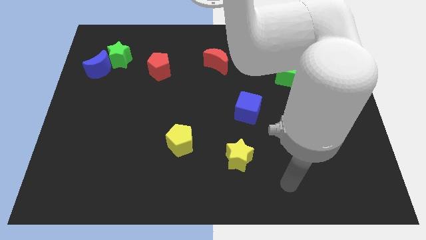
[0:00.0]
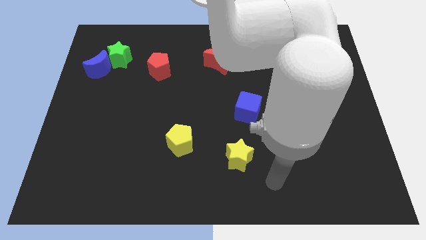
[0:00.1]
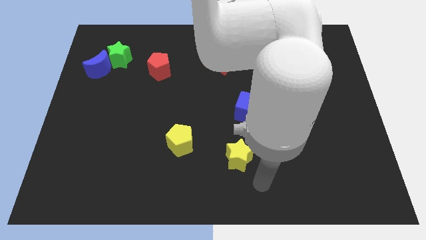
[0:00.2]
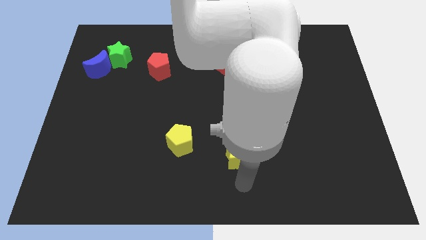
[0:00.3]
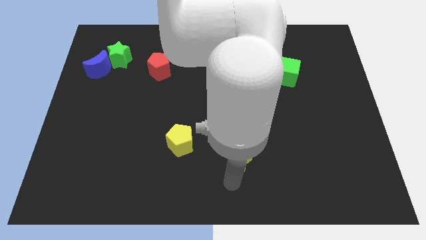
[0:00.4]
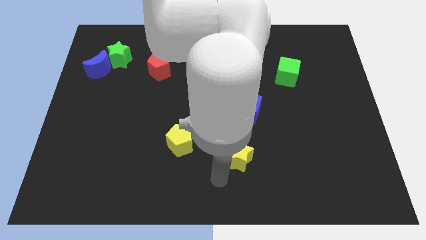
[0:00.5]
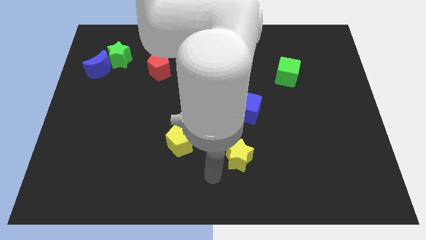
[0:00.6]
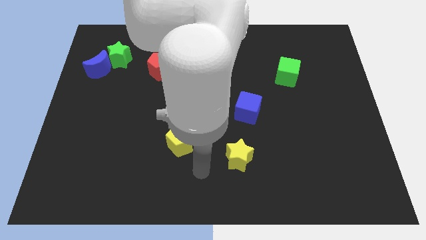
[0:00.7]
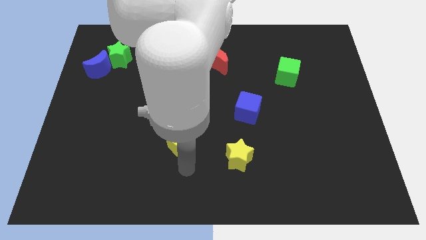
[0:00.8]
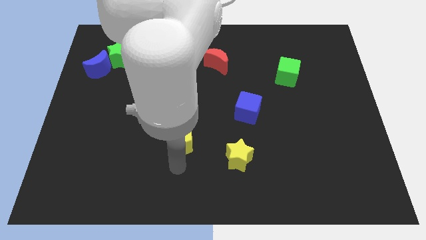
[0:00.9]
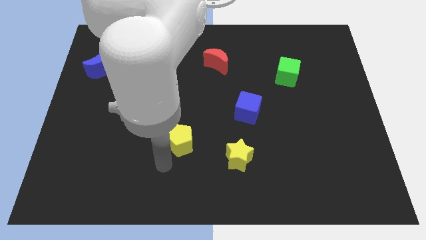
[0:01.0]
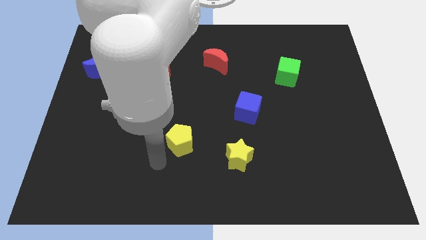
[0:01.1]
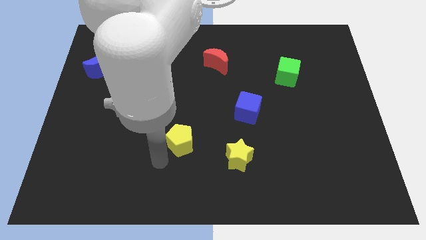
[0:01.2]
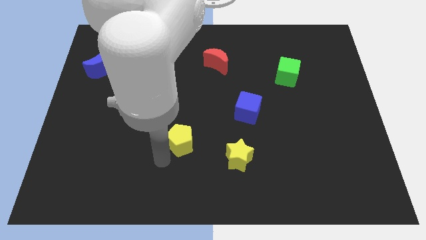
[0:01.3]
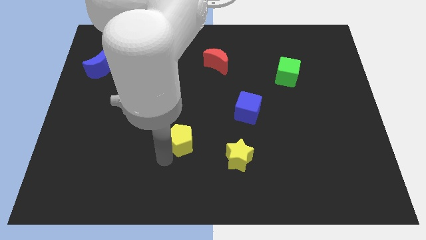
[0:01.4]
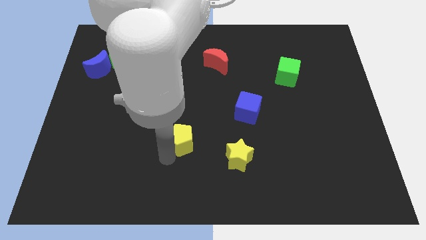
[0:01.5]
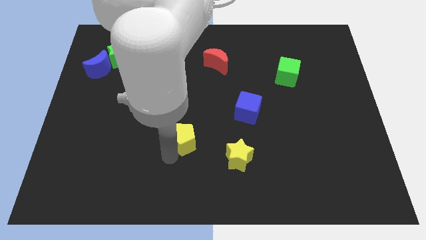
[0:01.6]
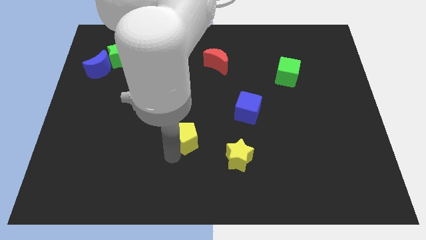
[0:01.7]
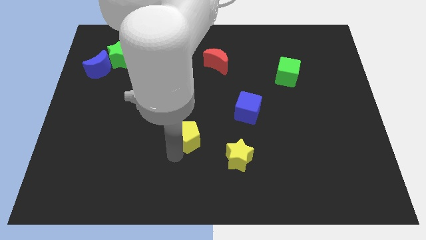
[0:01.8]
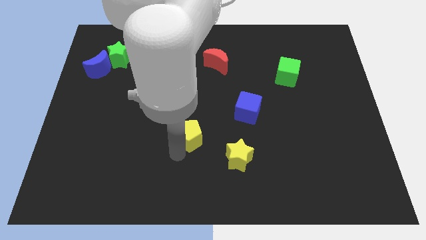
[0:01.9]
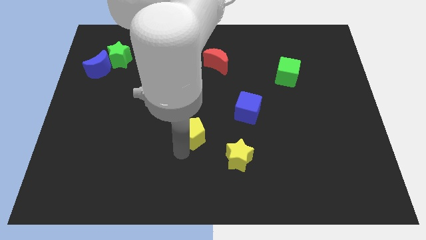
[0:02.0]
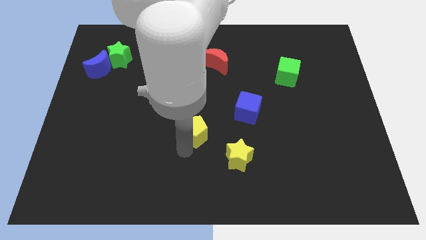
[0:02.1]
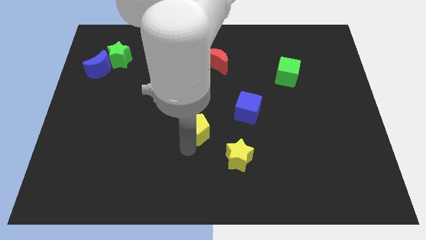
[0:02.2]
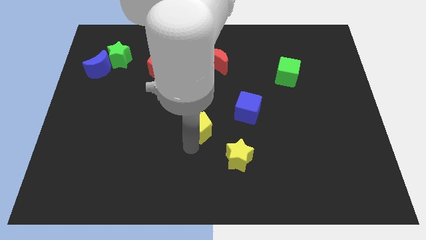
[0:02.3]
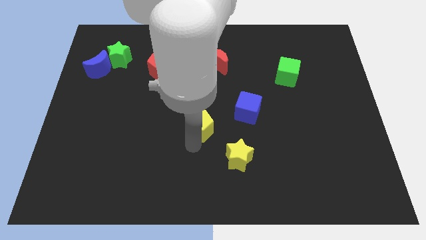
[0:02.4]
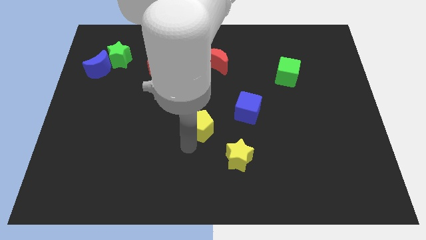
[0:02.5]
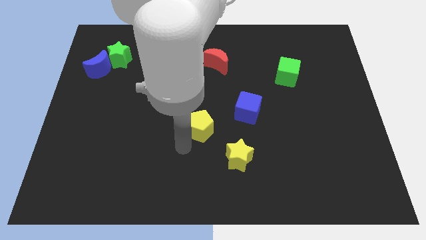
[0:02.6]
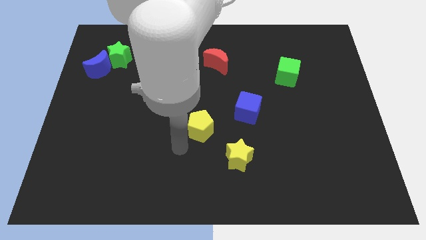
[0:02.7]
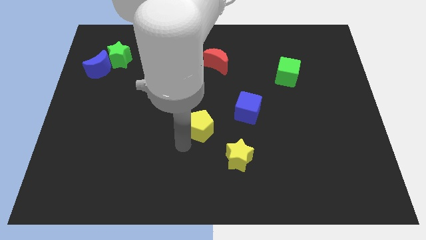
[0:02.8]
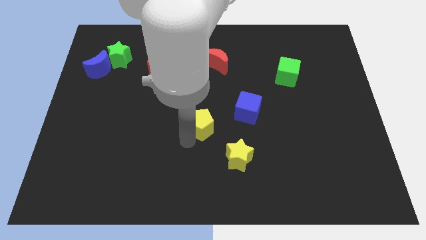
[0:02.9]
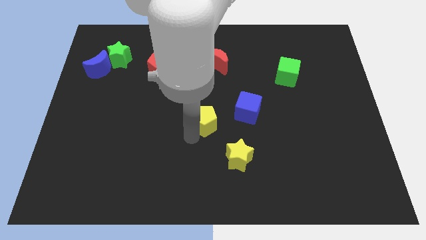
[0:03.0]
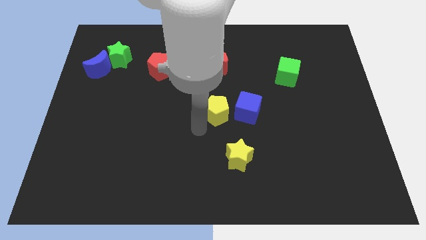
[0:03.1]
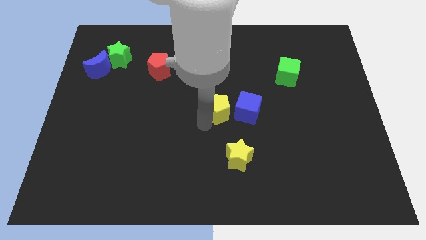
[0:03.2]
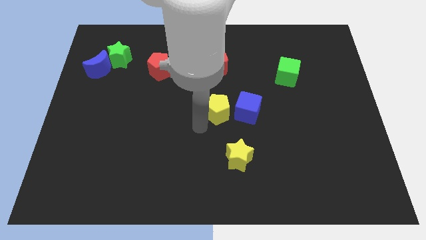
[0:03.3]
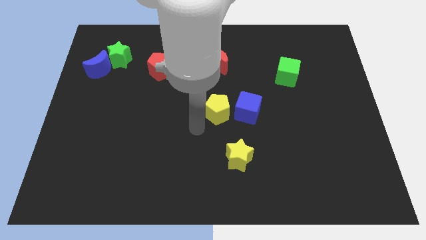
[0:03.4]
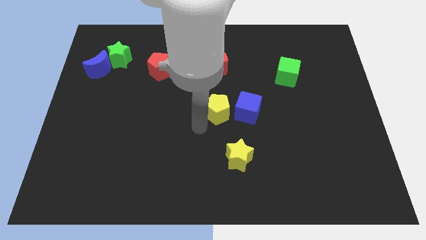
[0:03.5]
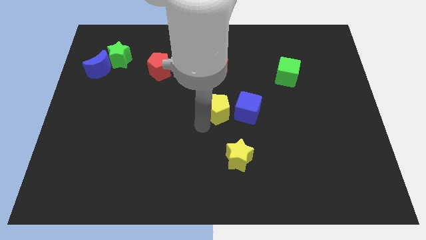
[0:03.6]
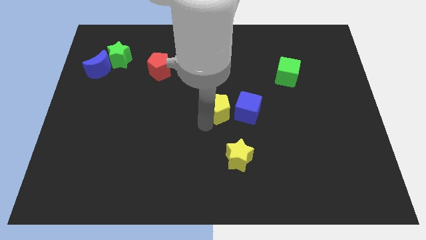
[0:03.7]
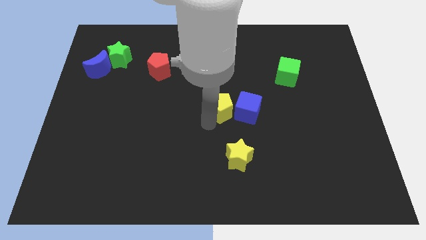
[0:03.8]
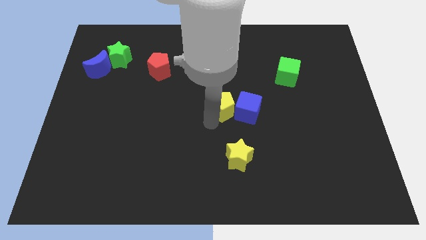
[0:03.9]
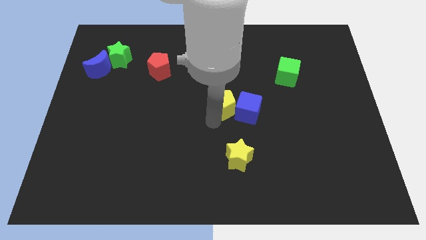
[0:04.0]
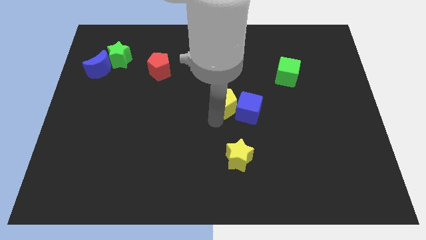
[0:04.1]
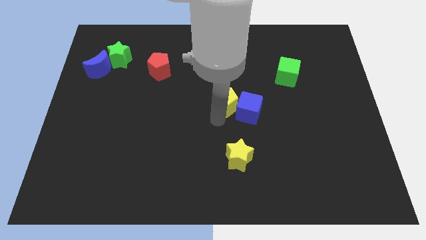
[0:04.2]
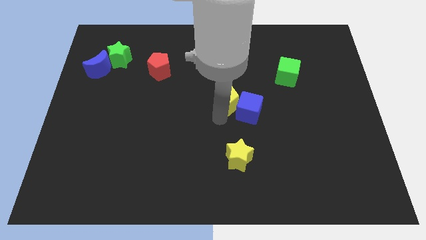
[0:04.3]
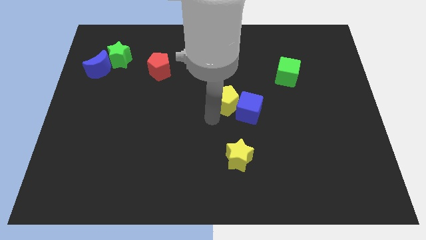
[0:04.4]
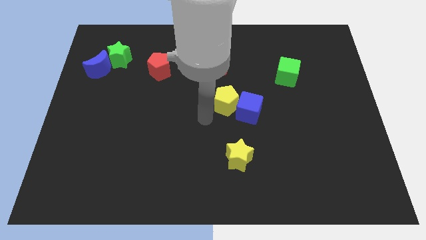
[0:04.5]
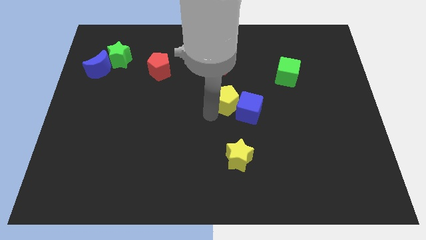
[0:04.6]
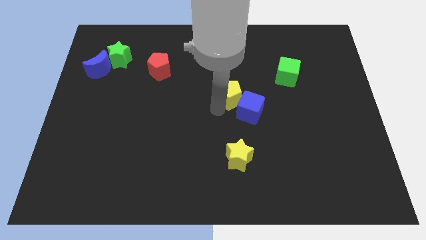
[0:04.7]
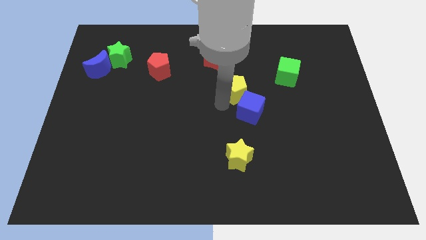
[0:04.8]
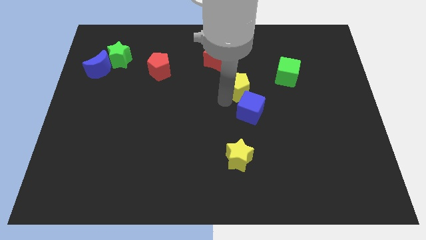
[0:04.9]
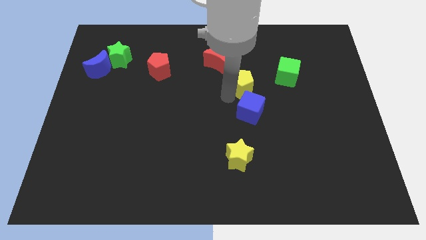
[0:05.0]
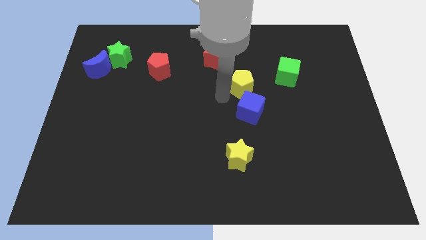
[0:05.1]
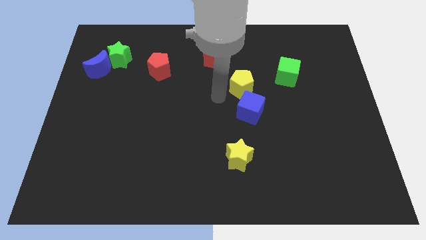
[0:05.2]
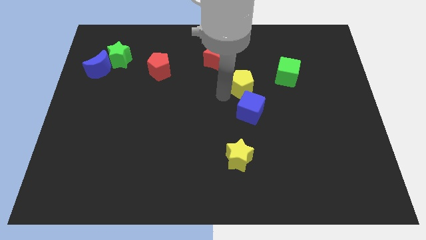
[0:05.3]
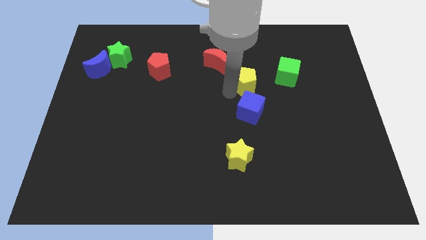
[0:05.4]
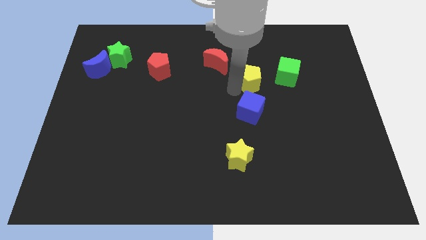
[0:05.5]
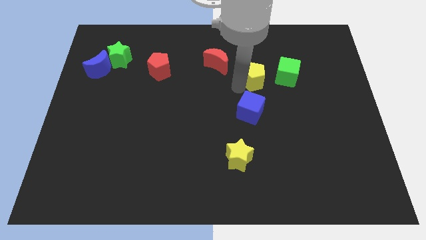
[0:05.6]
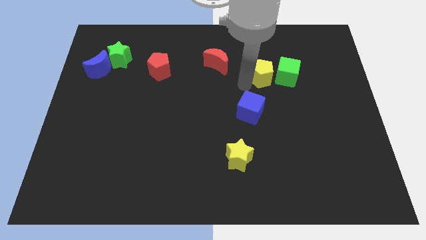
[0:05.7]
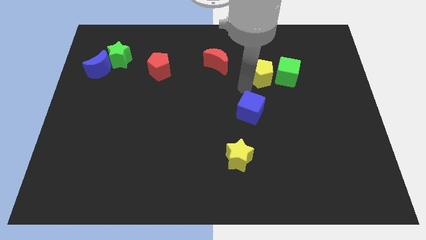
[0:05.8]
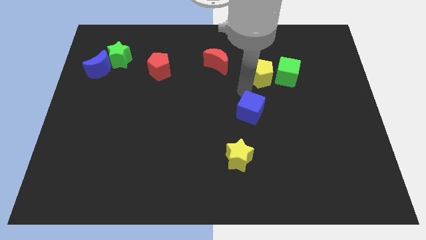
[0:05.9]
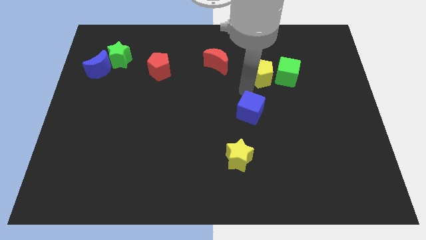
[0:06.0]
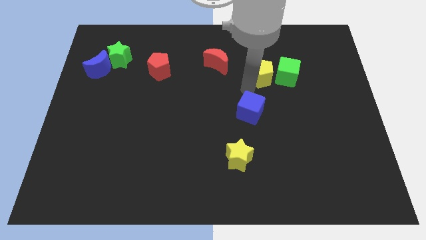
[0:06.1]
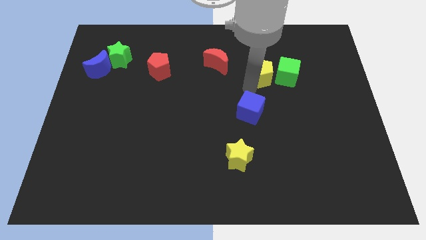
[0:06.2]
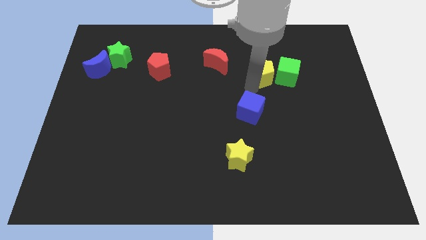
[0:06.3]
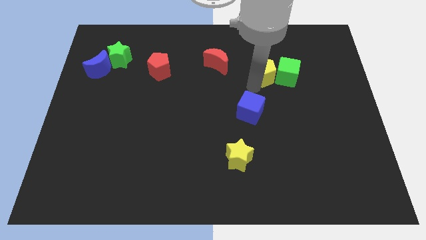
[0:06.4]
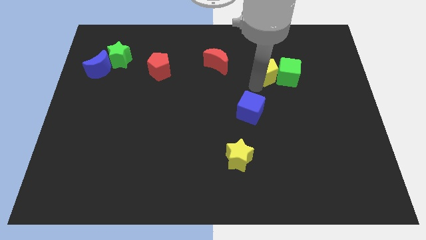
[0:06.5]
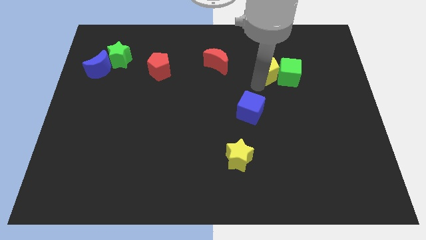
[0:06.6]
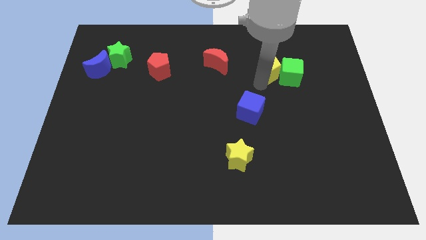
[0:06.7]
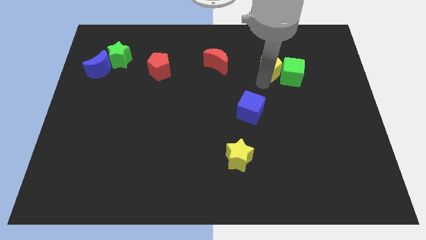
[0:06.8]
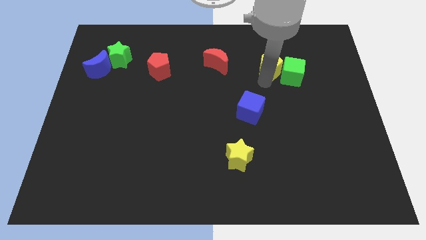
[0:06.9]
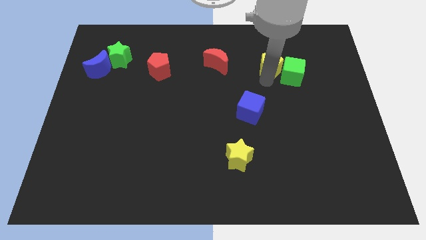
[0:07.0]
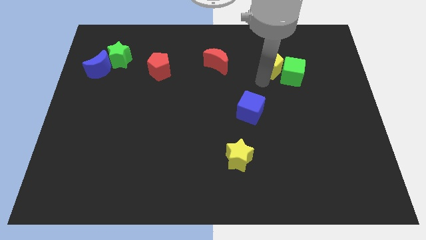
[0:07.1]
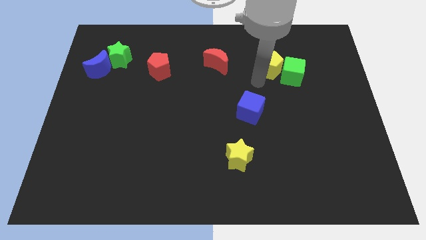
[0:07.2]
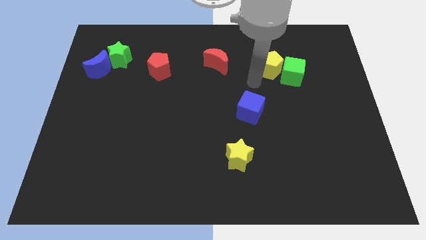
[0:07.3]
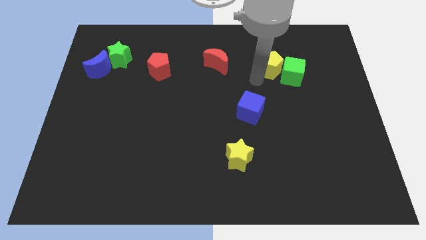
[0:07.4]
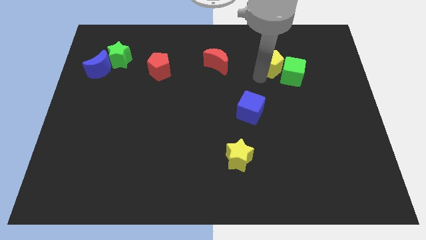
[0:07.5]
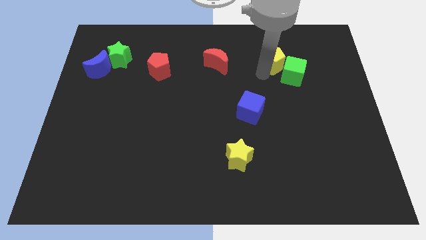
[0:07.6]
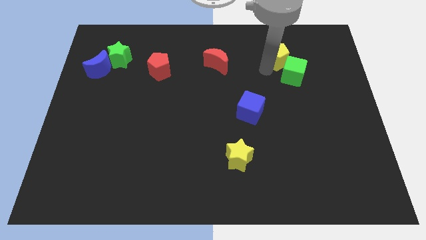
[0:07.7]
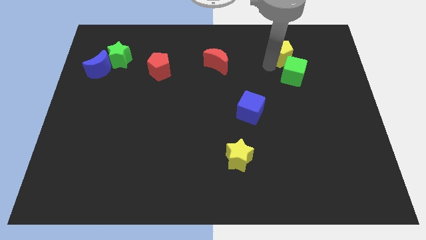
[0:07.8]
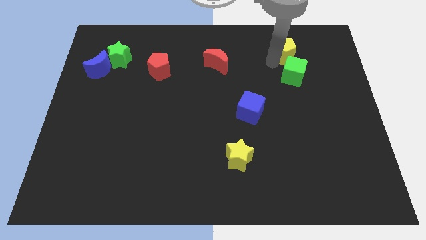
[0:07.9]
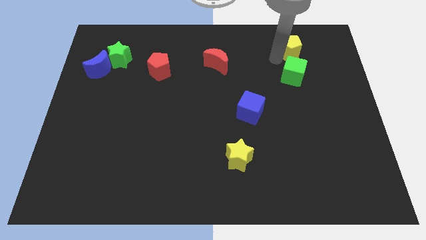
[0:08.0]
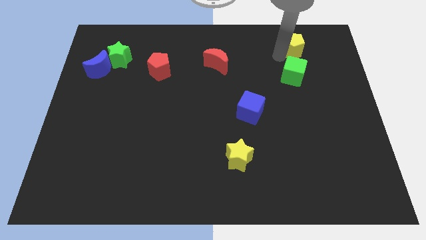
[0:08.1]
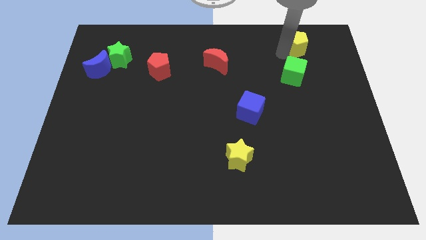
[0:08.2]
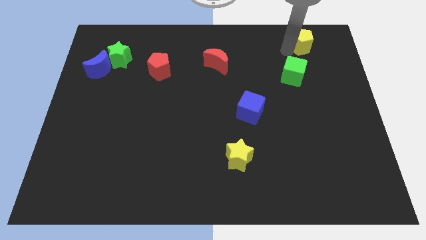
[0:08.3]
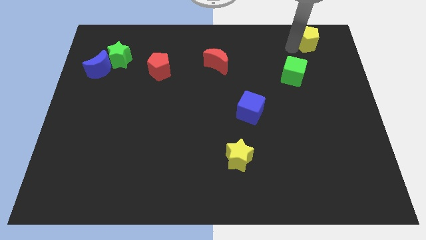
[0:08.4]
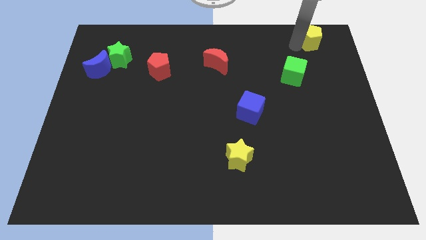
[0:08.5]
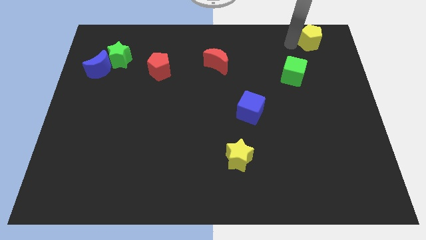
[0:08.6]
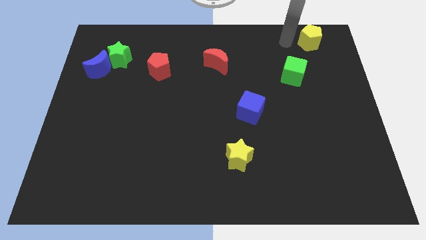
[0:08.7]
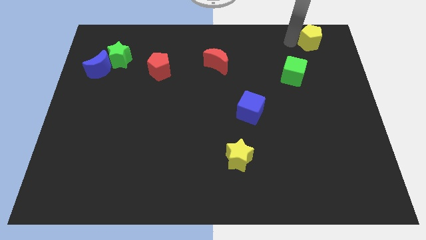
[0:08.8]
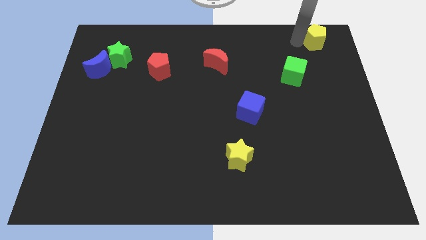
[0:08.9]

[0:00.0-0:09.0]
slide the yellow pentagon to the top right of the board
